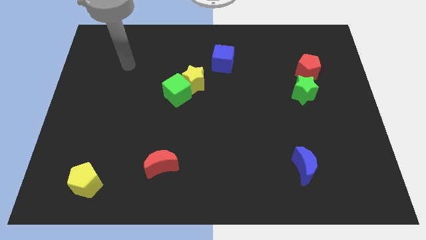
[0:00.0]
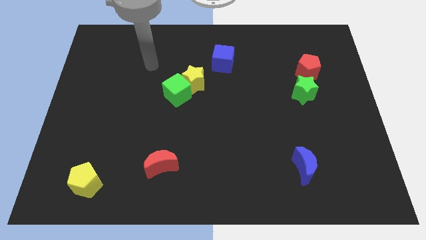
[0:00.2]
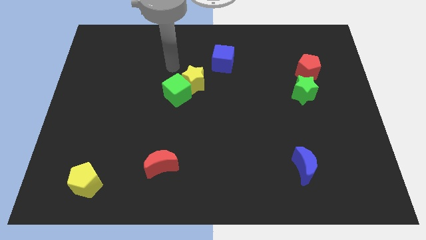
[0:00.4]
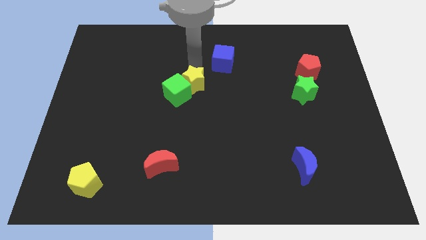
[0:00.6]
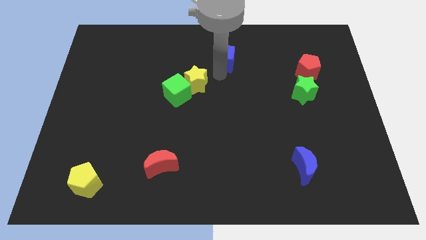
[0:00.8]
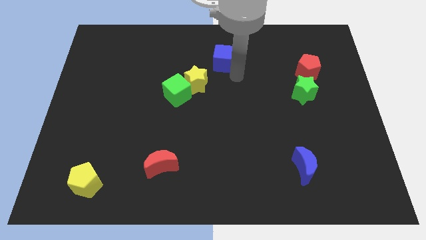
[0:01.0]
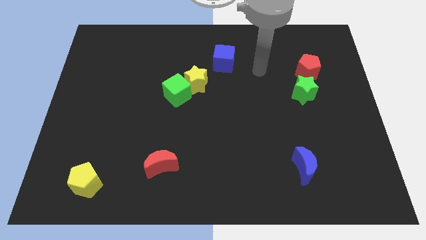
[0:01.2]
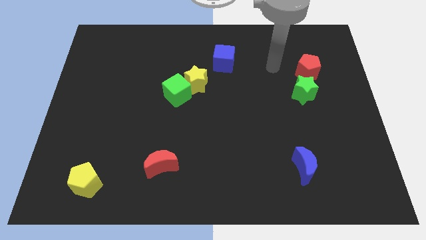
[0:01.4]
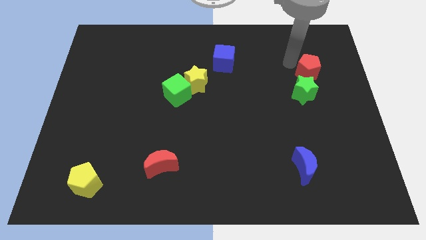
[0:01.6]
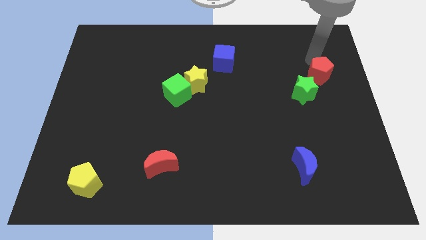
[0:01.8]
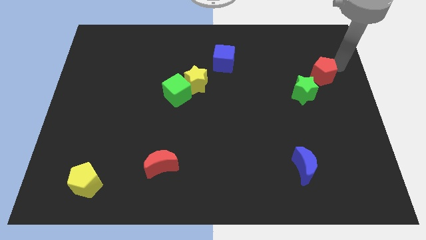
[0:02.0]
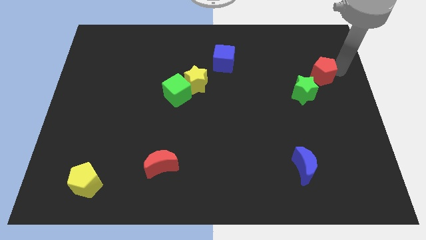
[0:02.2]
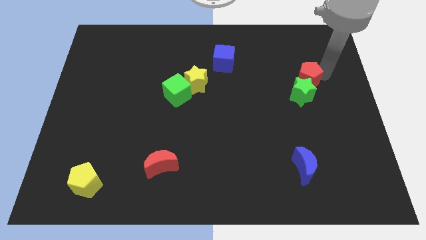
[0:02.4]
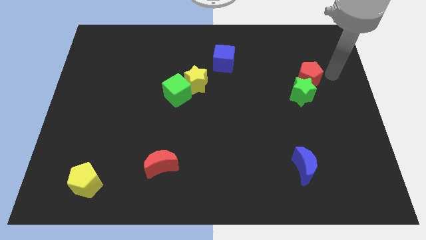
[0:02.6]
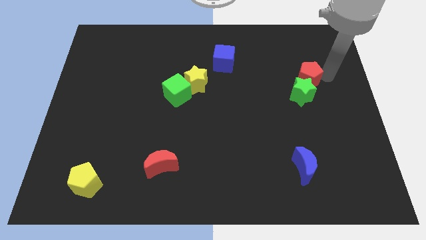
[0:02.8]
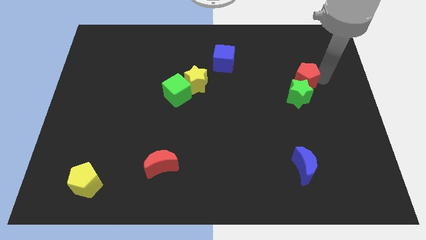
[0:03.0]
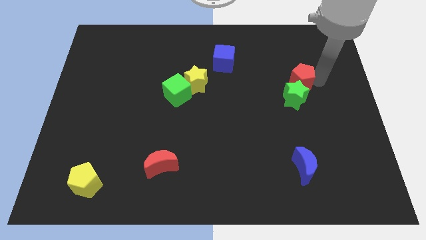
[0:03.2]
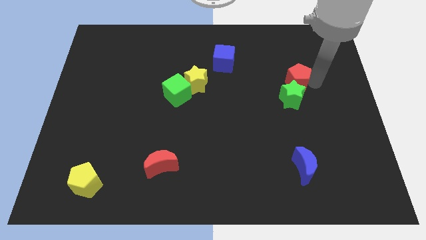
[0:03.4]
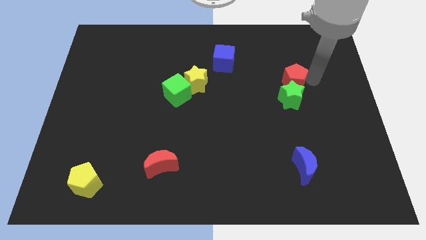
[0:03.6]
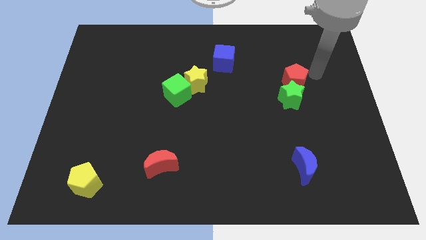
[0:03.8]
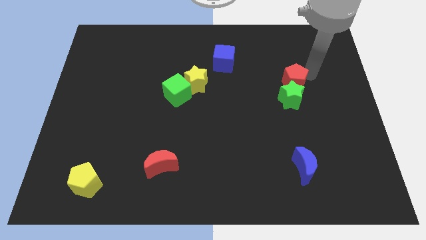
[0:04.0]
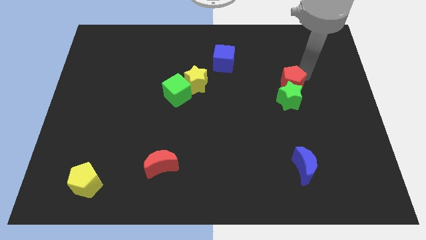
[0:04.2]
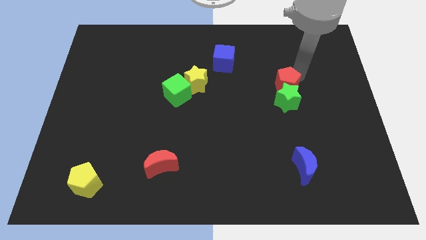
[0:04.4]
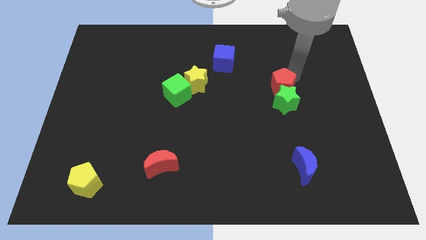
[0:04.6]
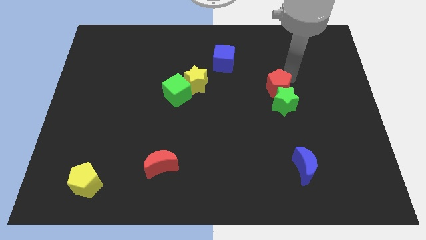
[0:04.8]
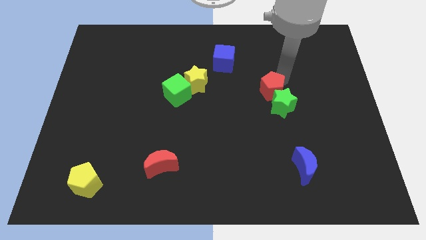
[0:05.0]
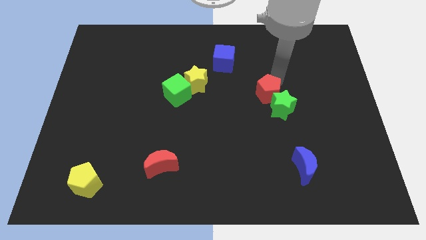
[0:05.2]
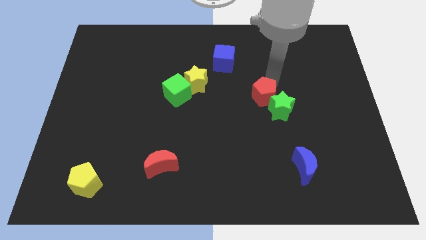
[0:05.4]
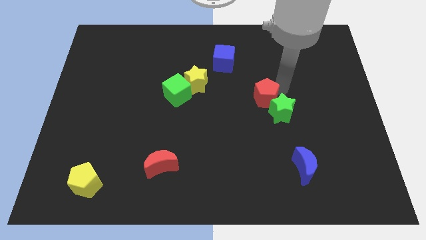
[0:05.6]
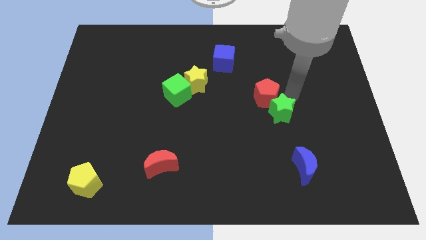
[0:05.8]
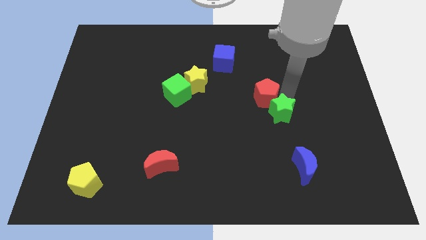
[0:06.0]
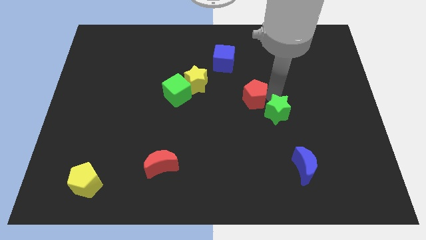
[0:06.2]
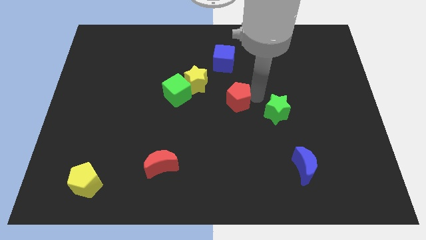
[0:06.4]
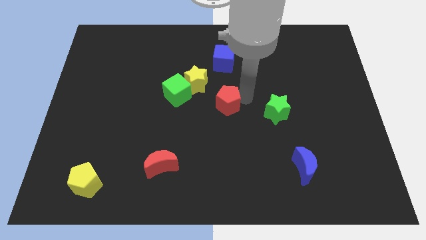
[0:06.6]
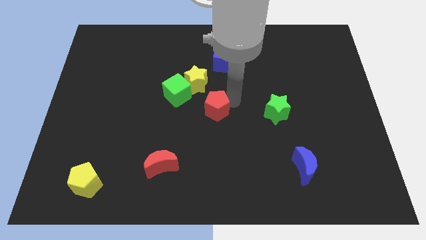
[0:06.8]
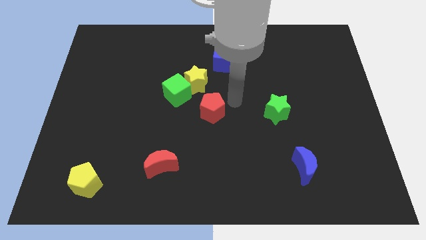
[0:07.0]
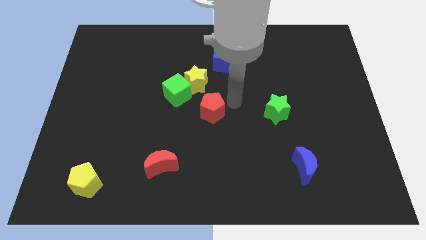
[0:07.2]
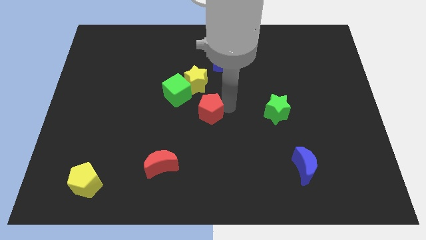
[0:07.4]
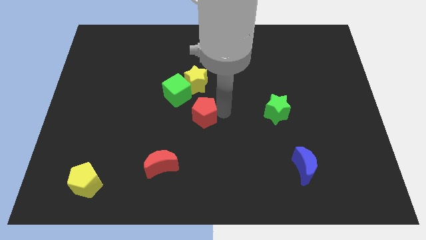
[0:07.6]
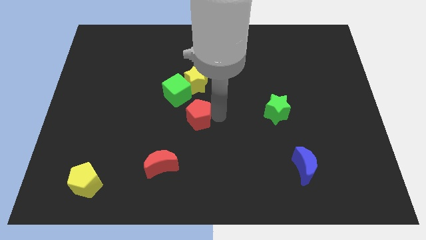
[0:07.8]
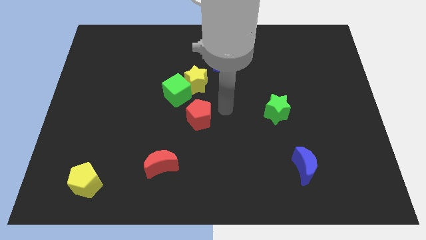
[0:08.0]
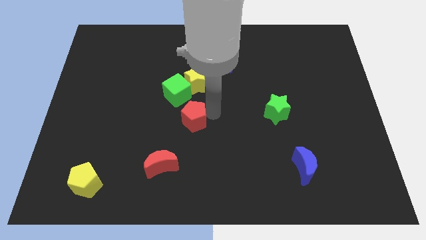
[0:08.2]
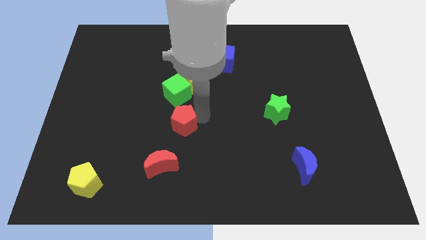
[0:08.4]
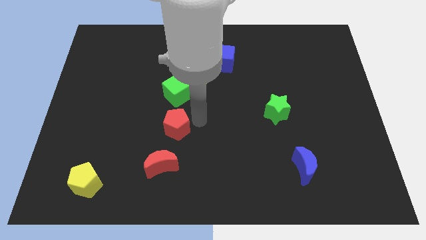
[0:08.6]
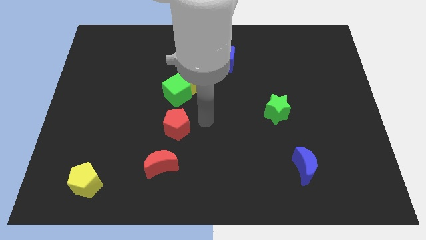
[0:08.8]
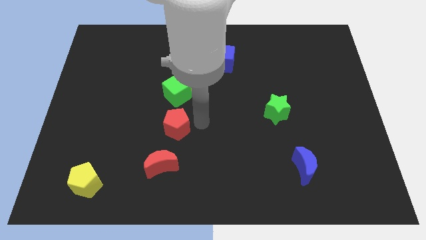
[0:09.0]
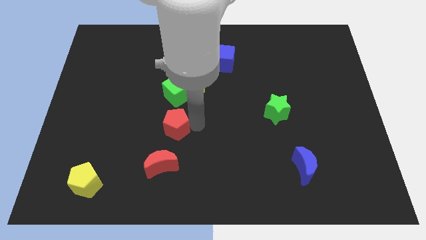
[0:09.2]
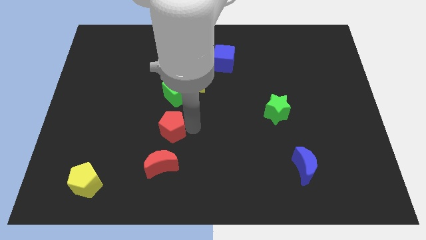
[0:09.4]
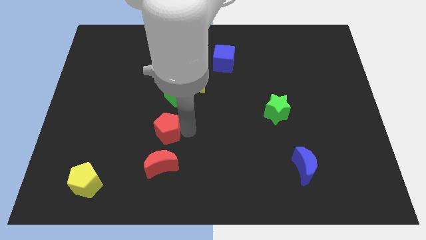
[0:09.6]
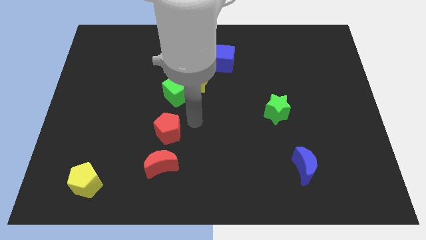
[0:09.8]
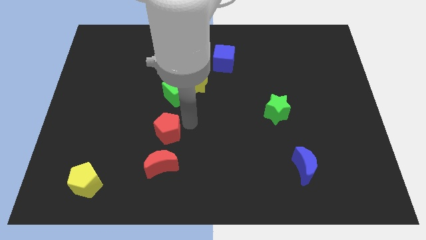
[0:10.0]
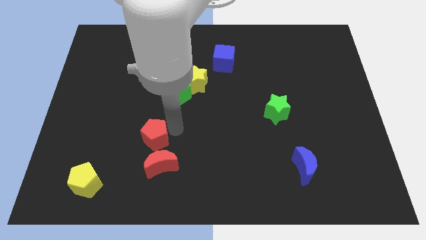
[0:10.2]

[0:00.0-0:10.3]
move the red pentagon to the top left side of the red moon

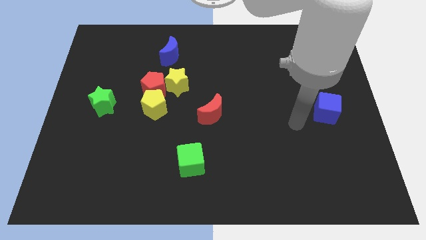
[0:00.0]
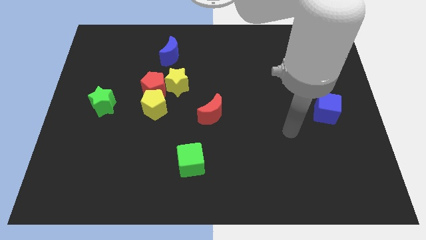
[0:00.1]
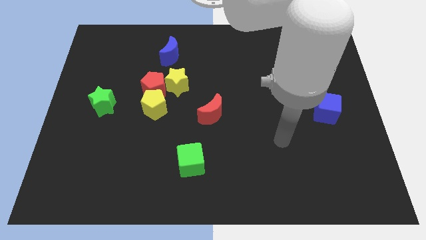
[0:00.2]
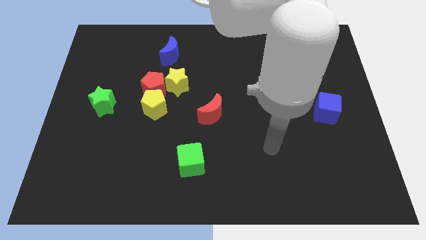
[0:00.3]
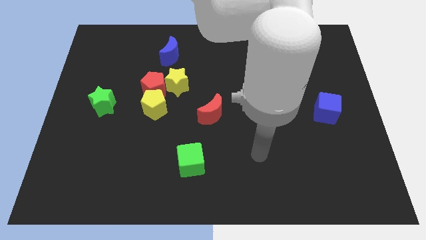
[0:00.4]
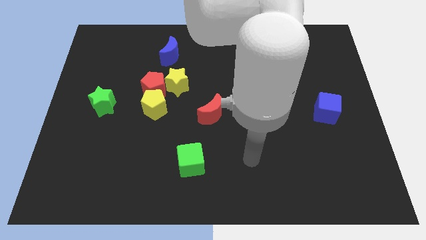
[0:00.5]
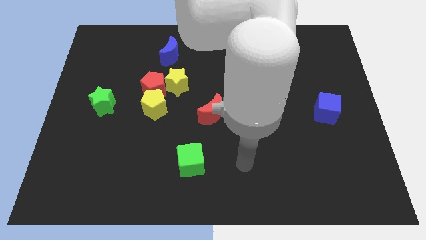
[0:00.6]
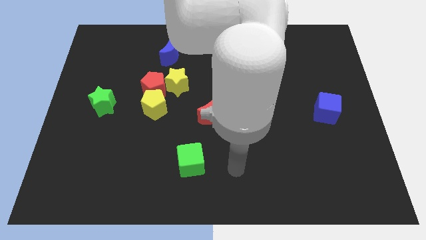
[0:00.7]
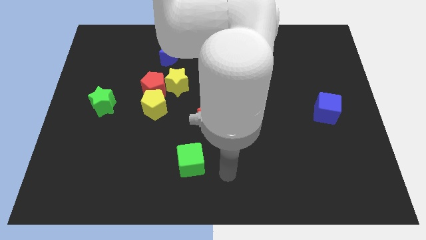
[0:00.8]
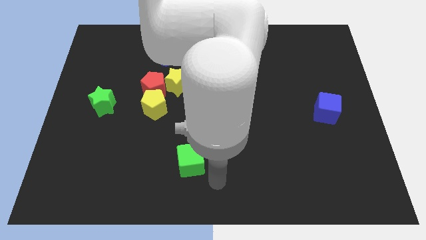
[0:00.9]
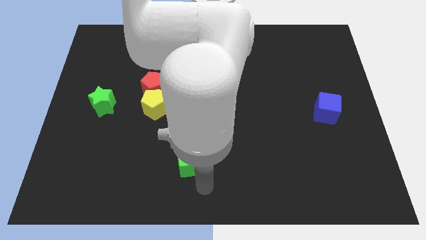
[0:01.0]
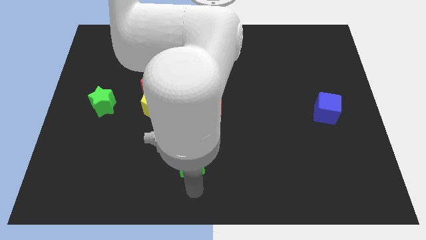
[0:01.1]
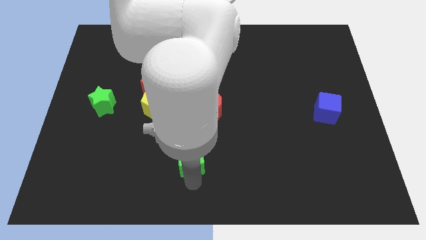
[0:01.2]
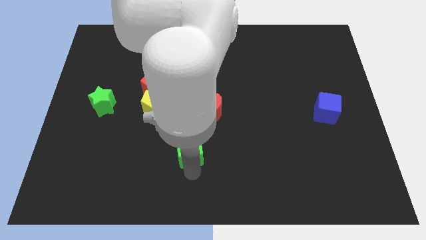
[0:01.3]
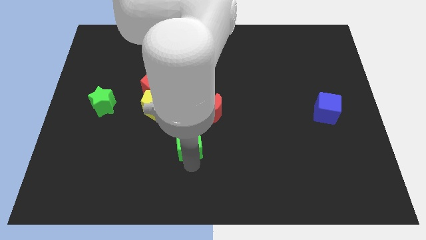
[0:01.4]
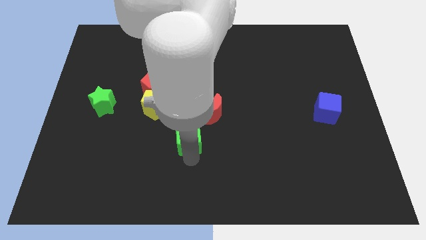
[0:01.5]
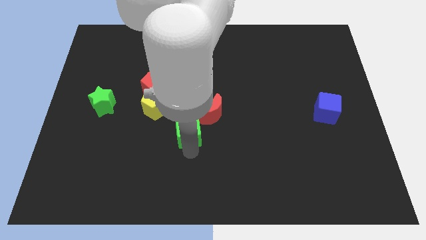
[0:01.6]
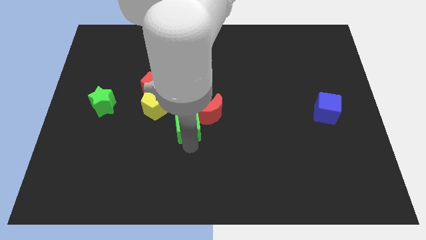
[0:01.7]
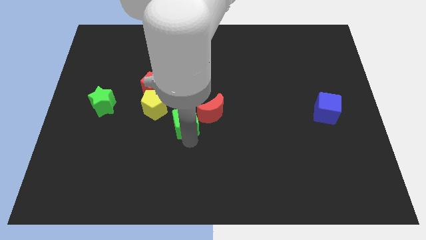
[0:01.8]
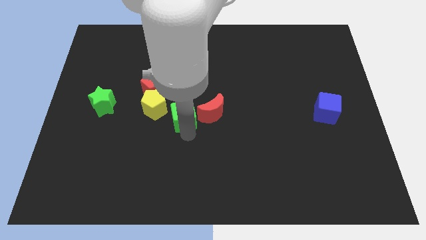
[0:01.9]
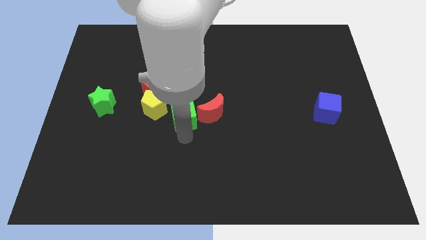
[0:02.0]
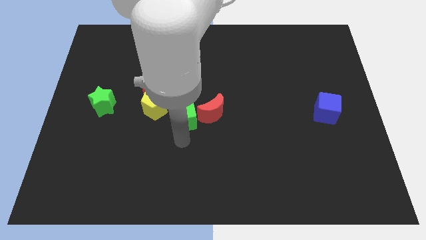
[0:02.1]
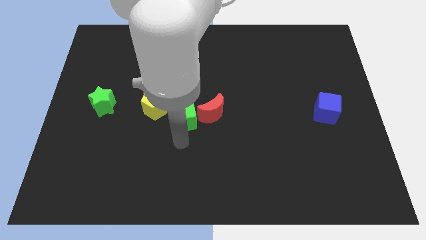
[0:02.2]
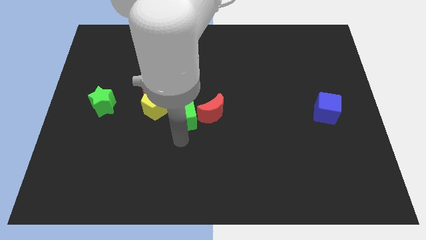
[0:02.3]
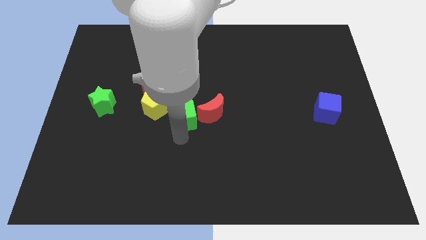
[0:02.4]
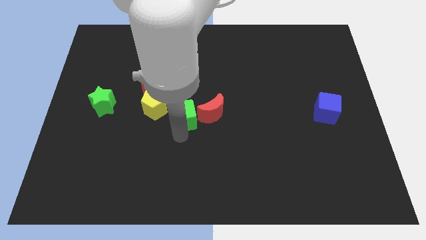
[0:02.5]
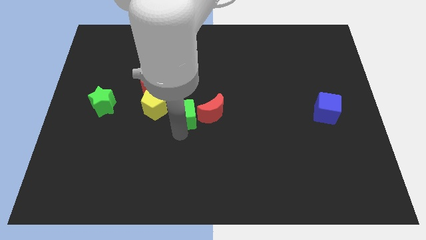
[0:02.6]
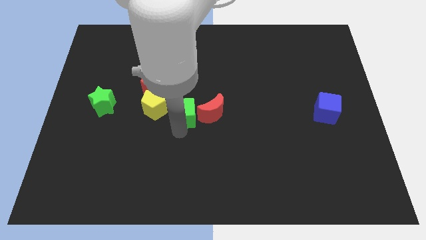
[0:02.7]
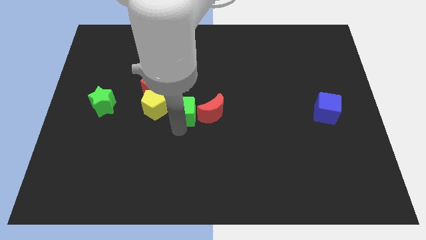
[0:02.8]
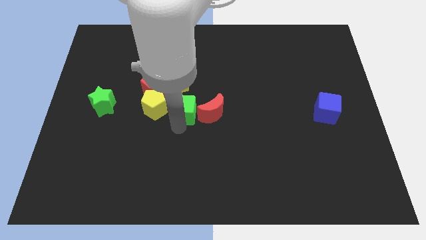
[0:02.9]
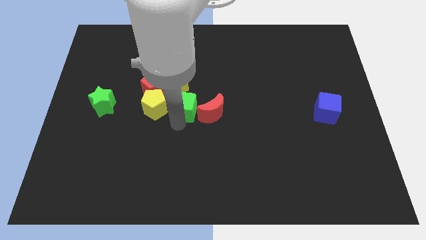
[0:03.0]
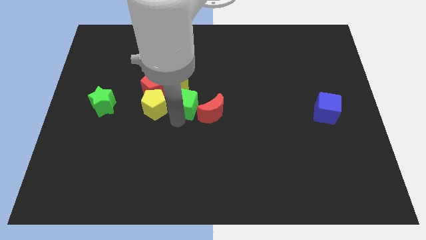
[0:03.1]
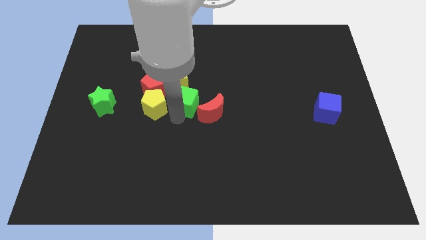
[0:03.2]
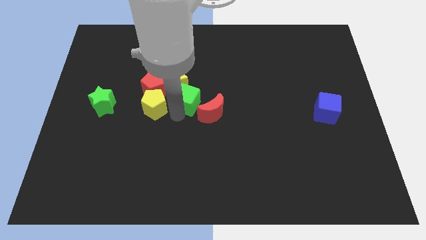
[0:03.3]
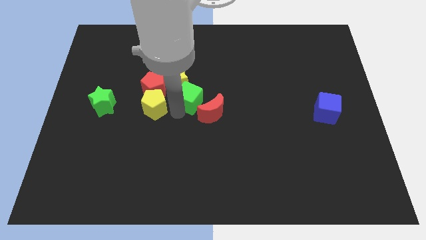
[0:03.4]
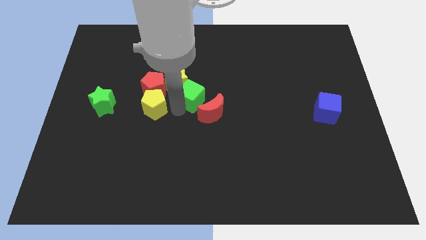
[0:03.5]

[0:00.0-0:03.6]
move the green cube to the right of the yellow star
